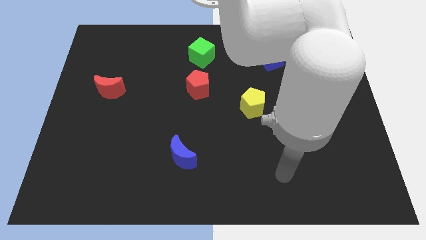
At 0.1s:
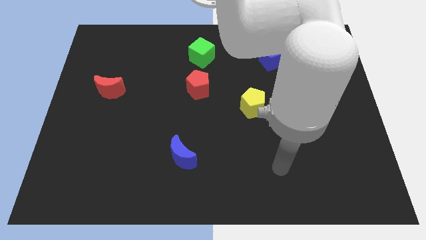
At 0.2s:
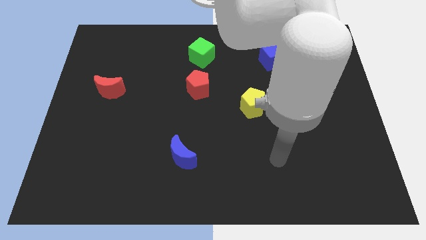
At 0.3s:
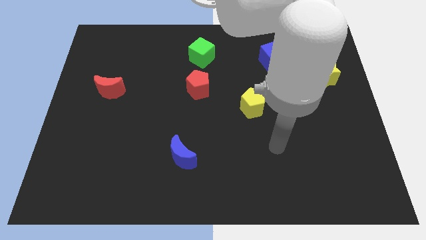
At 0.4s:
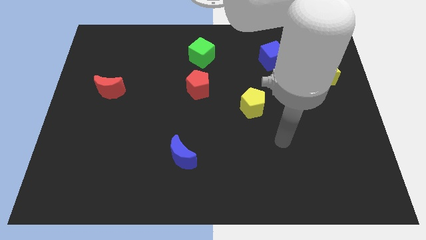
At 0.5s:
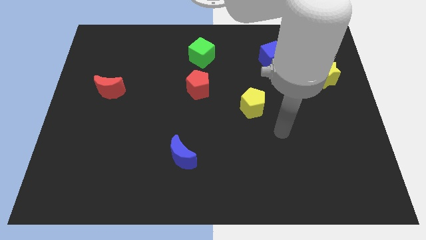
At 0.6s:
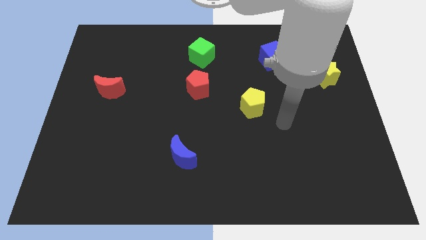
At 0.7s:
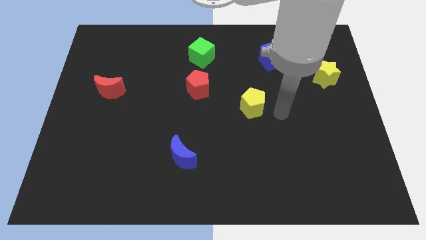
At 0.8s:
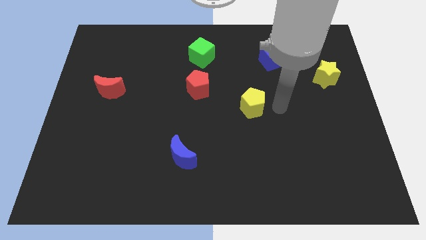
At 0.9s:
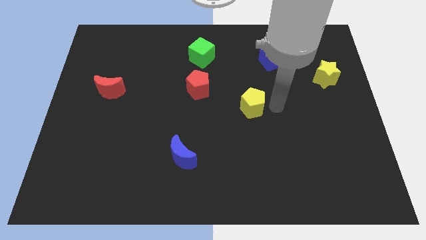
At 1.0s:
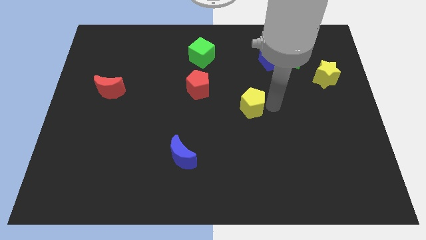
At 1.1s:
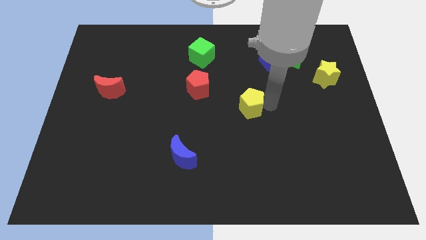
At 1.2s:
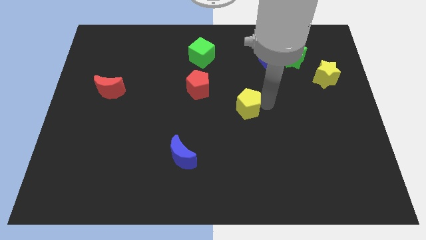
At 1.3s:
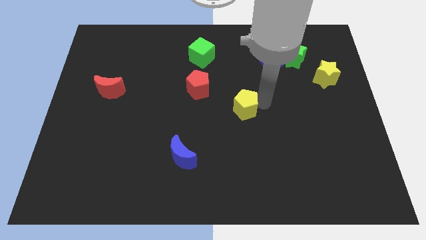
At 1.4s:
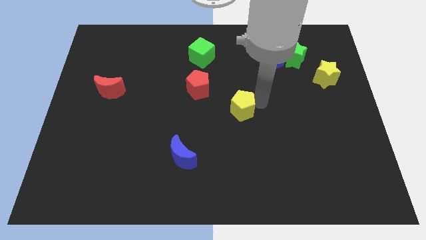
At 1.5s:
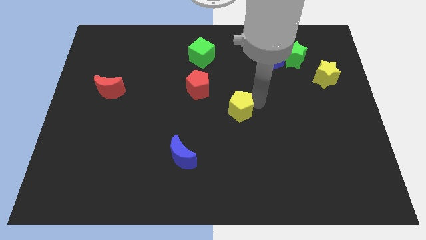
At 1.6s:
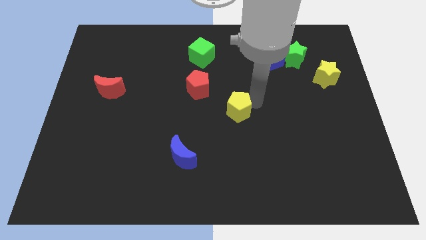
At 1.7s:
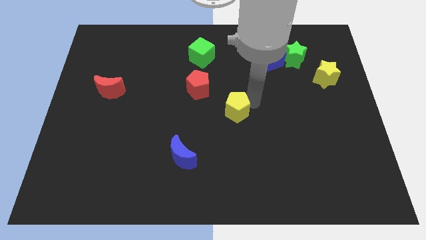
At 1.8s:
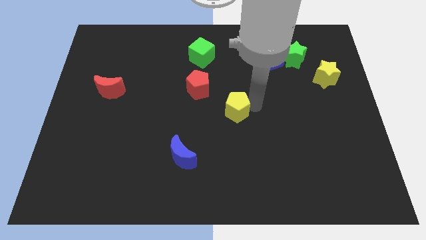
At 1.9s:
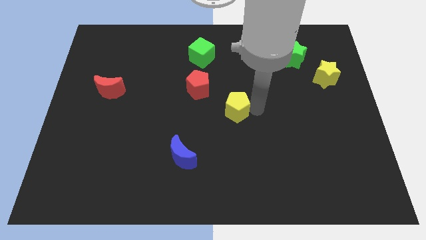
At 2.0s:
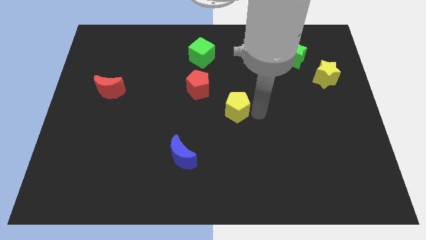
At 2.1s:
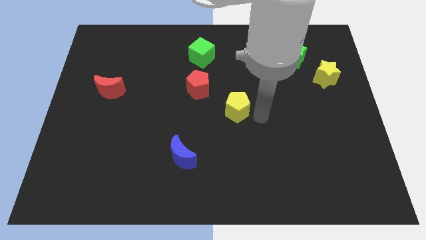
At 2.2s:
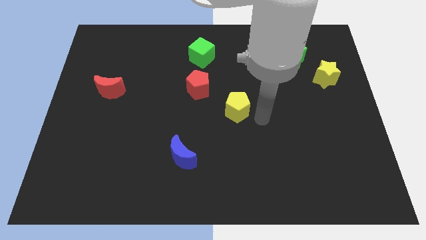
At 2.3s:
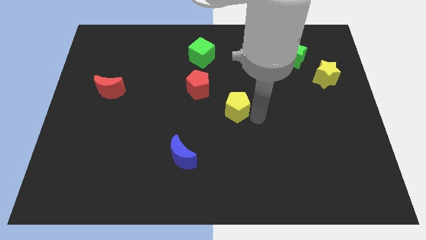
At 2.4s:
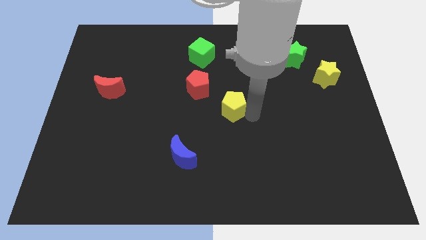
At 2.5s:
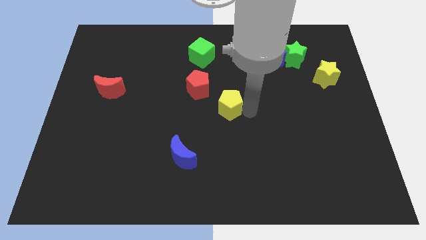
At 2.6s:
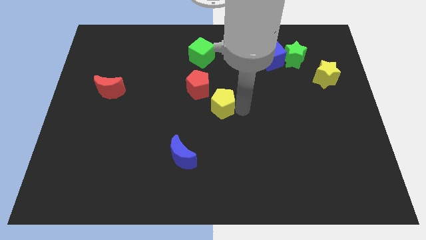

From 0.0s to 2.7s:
push the yellow pentagon a little bit left

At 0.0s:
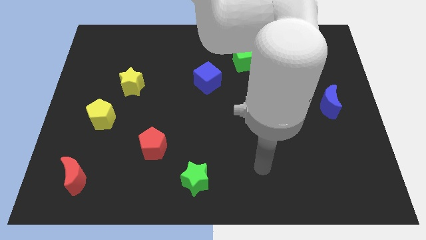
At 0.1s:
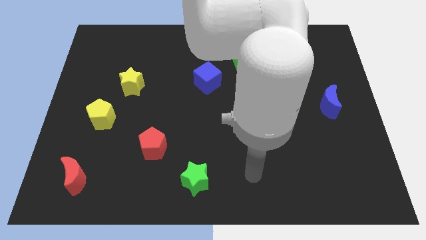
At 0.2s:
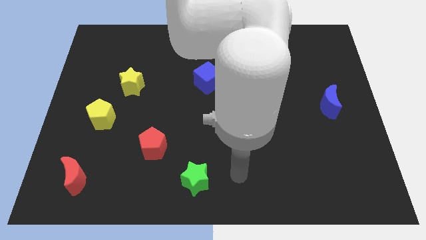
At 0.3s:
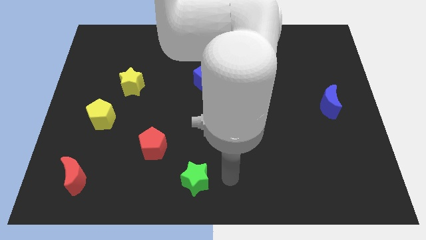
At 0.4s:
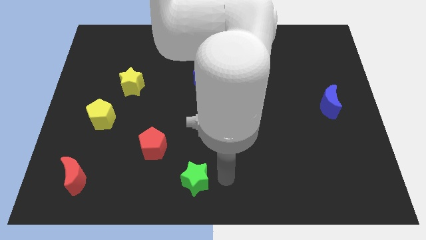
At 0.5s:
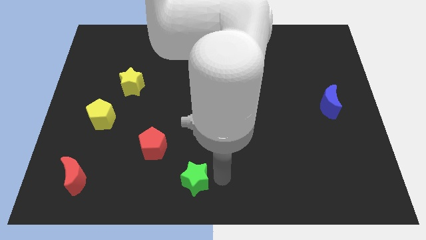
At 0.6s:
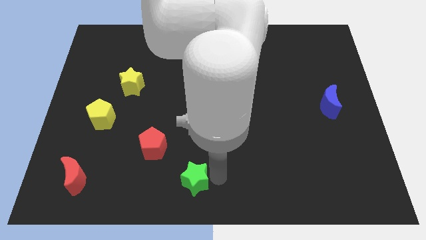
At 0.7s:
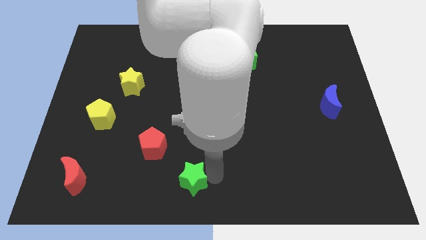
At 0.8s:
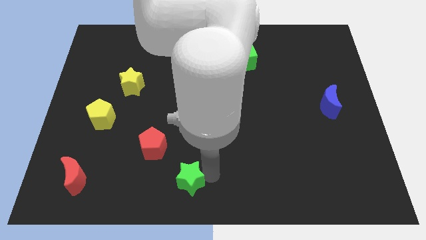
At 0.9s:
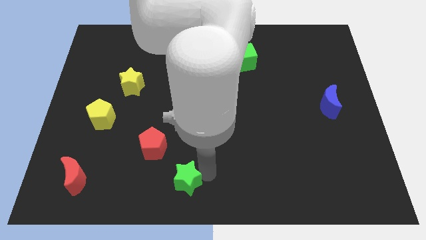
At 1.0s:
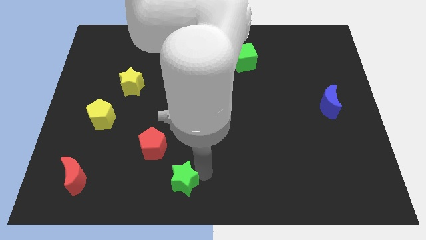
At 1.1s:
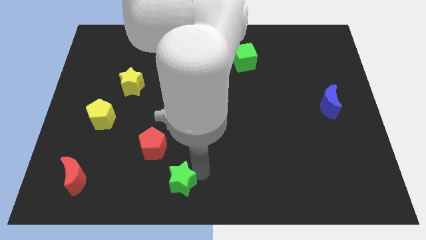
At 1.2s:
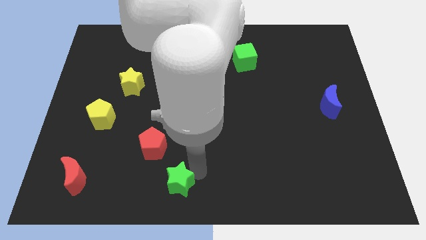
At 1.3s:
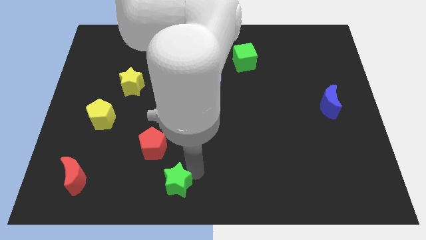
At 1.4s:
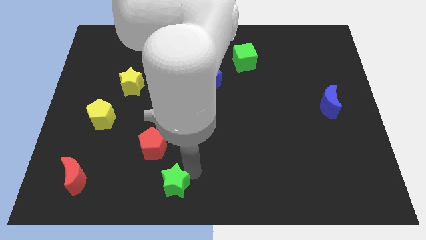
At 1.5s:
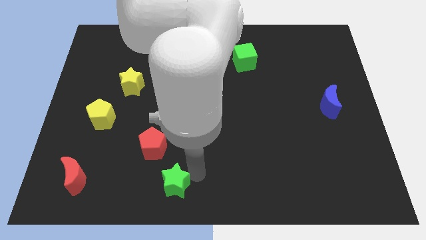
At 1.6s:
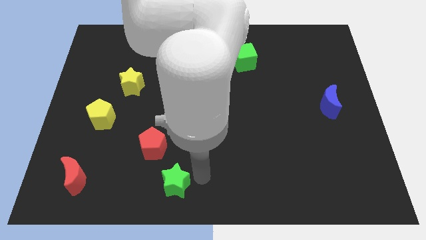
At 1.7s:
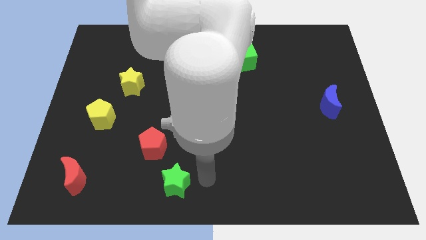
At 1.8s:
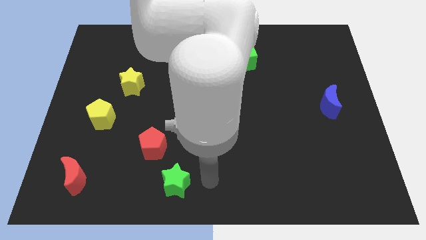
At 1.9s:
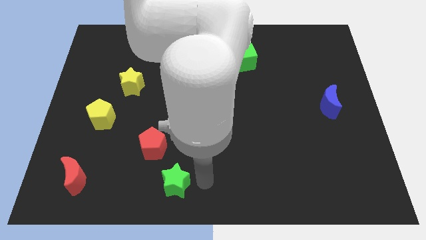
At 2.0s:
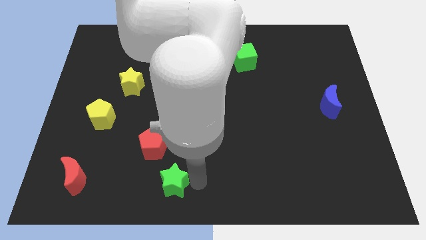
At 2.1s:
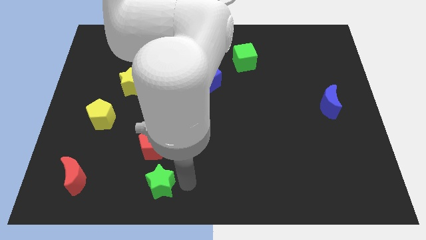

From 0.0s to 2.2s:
slightly move the green star to the left

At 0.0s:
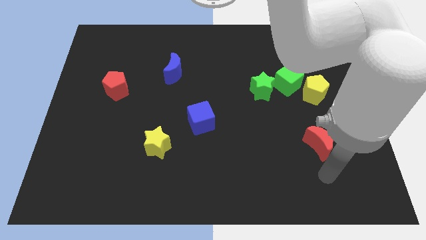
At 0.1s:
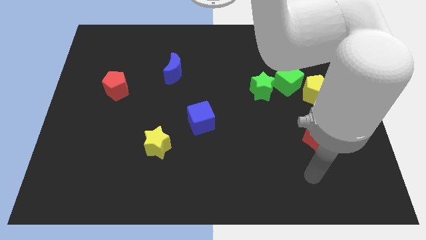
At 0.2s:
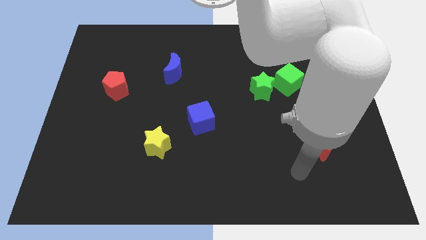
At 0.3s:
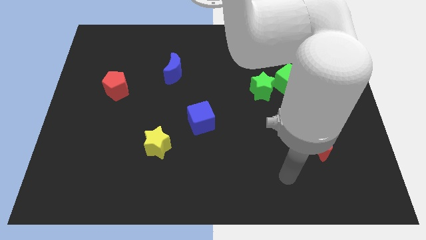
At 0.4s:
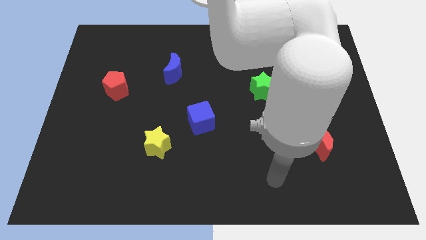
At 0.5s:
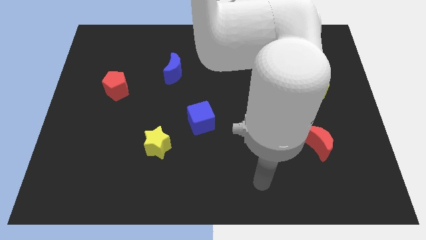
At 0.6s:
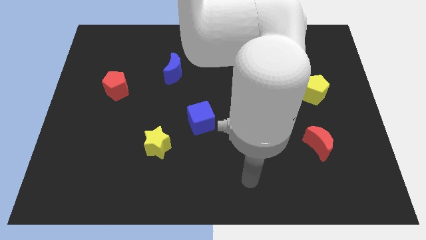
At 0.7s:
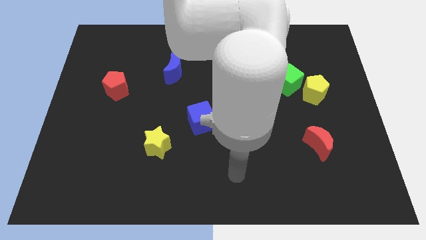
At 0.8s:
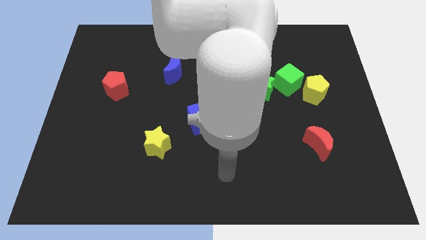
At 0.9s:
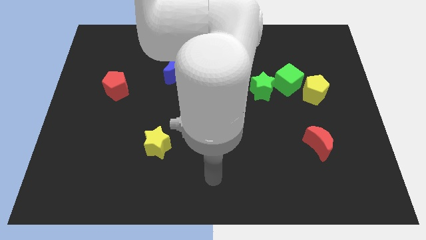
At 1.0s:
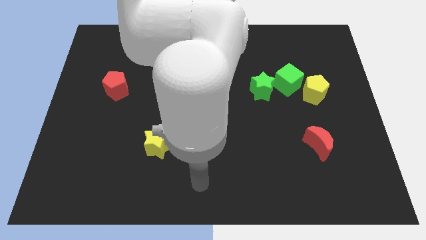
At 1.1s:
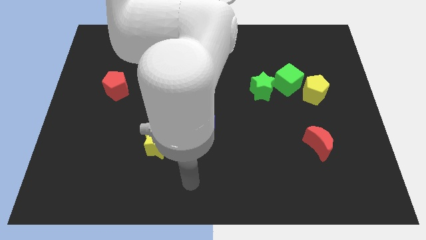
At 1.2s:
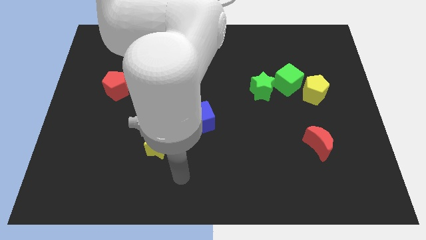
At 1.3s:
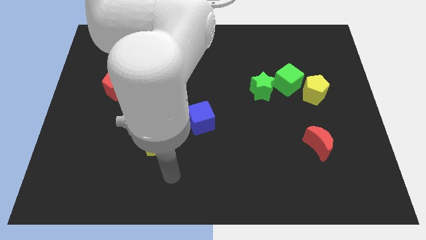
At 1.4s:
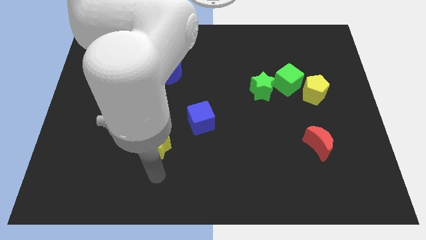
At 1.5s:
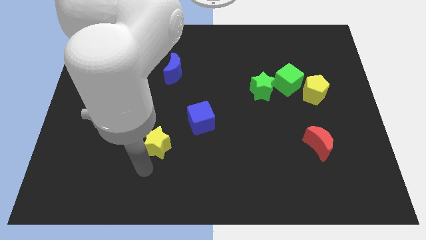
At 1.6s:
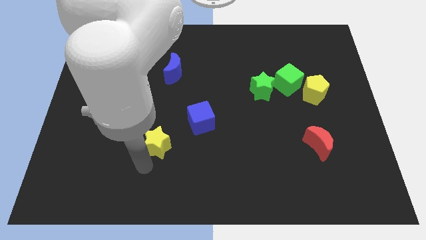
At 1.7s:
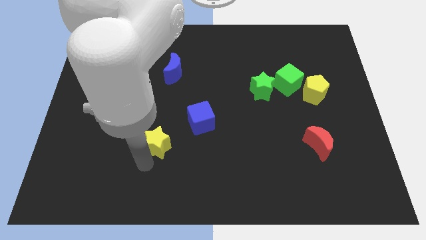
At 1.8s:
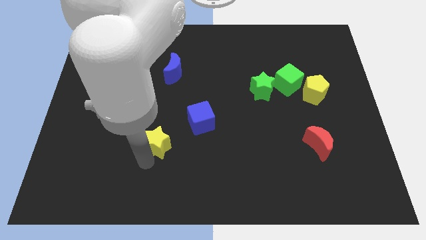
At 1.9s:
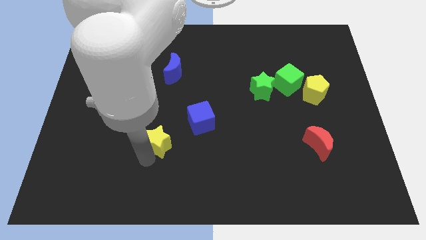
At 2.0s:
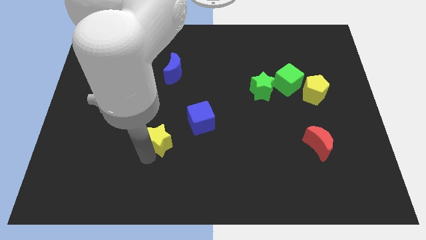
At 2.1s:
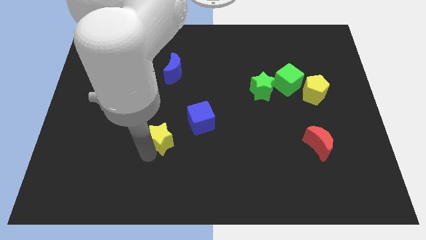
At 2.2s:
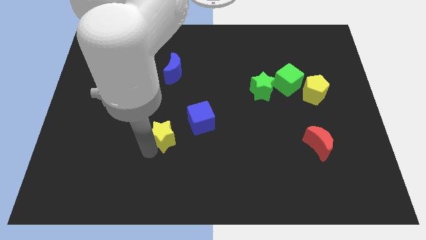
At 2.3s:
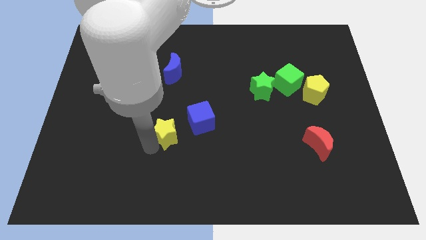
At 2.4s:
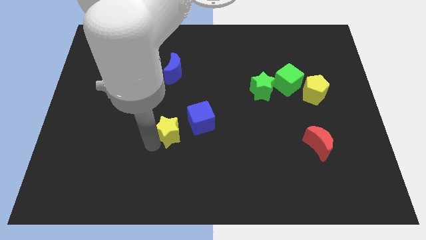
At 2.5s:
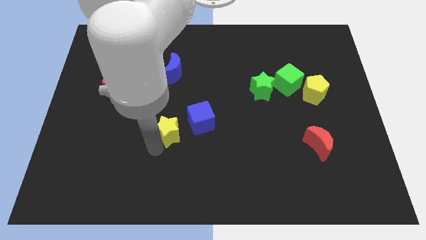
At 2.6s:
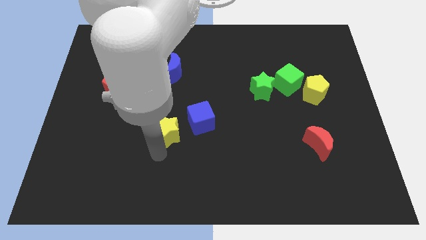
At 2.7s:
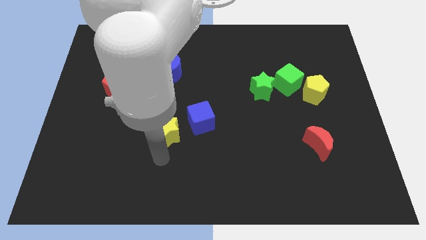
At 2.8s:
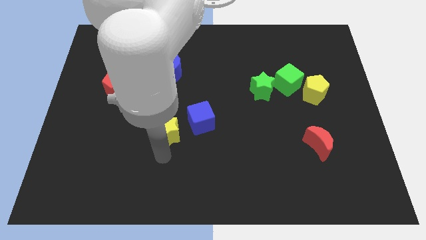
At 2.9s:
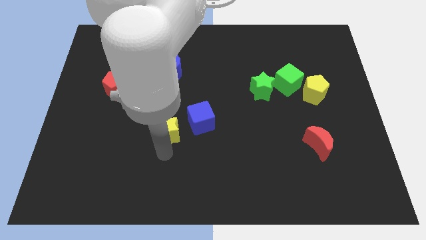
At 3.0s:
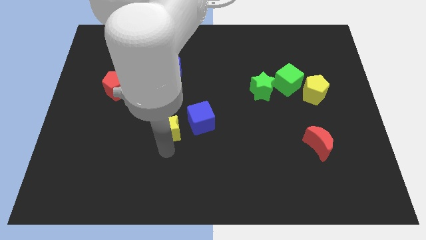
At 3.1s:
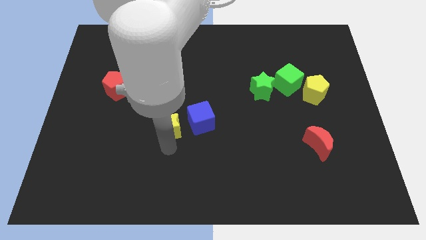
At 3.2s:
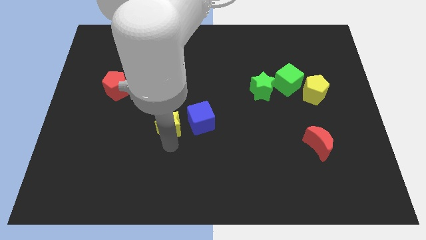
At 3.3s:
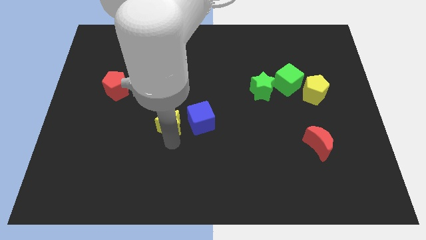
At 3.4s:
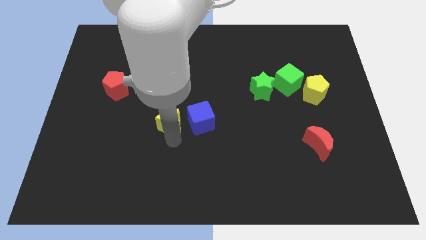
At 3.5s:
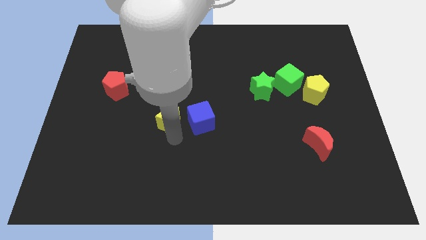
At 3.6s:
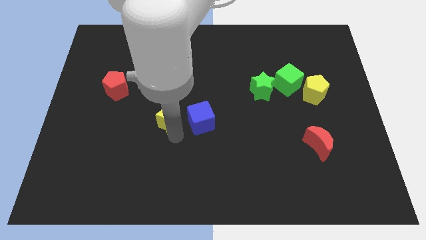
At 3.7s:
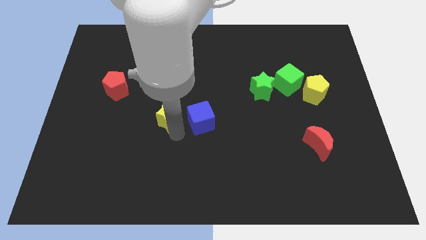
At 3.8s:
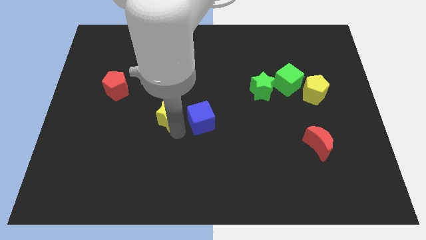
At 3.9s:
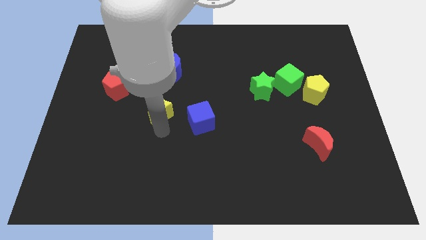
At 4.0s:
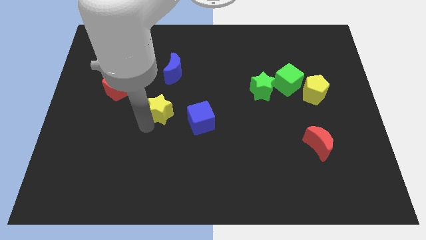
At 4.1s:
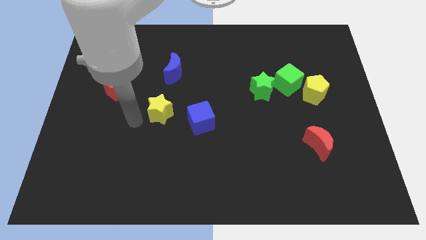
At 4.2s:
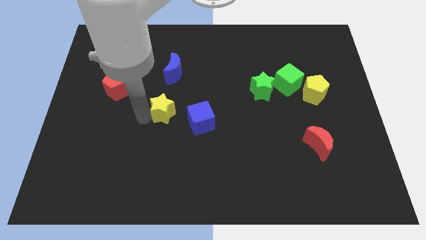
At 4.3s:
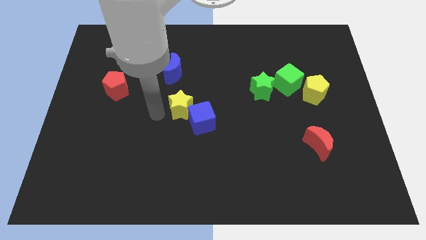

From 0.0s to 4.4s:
push the yellow star upwards and to the right diagonally a little
